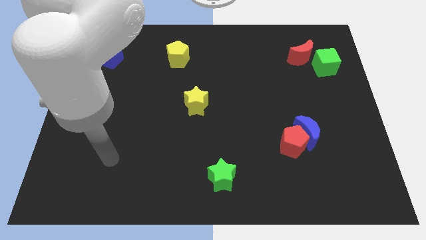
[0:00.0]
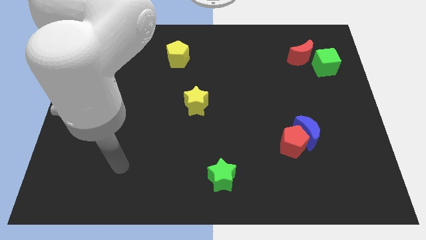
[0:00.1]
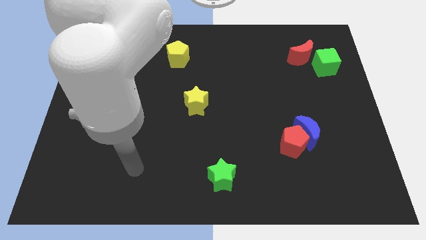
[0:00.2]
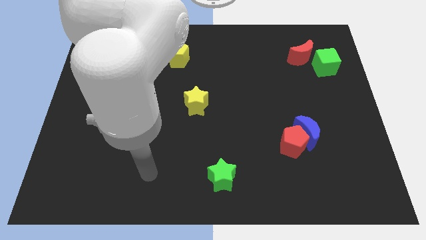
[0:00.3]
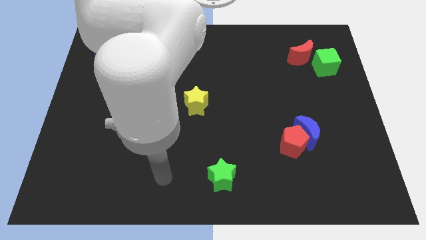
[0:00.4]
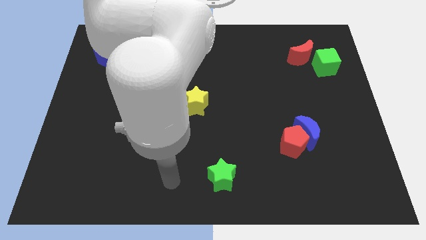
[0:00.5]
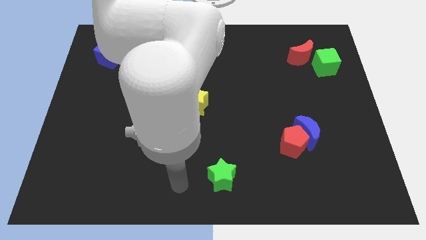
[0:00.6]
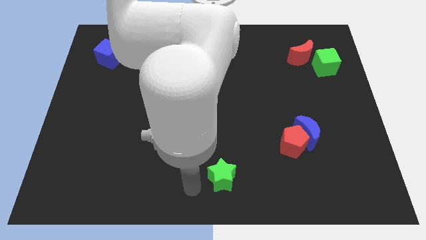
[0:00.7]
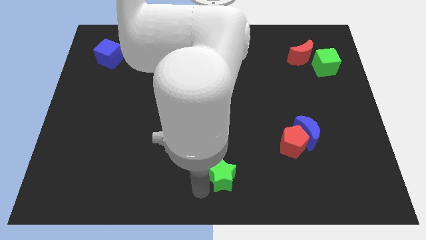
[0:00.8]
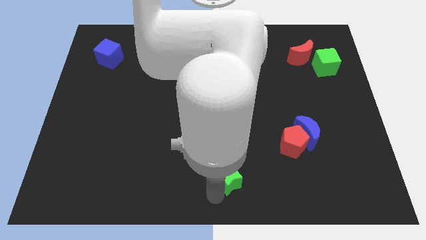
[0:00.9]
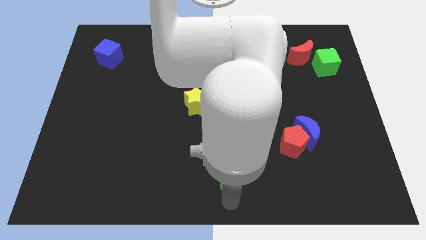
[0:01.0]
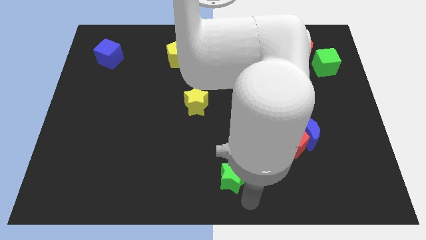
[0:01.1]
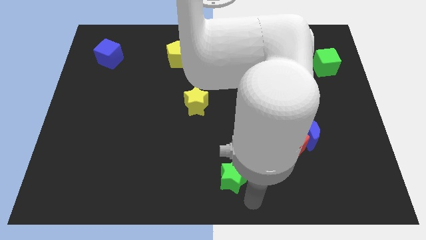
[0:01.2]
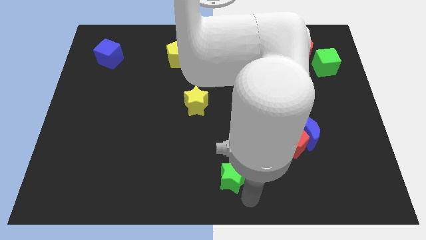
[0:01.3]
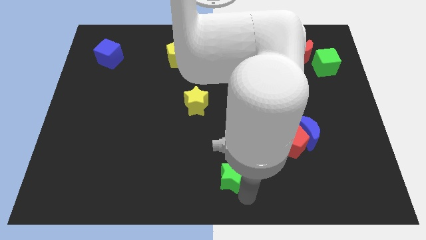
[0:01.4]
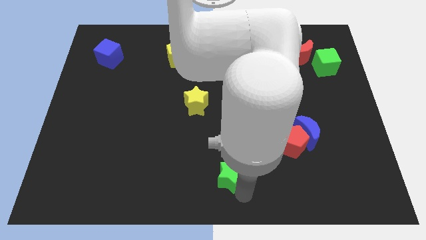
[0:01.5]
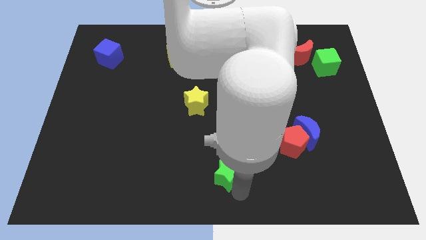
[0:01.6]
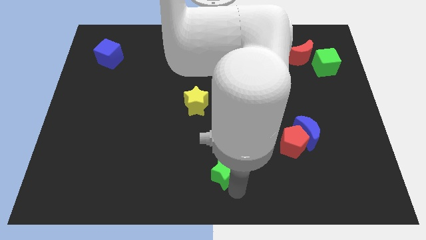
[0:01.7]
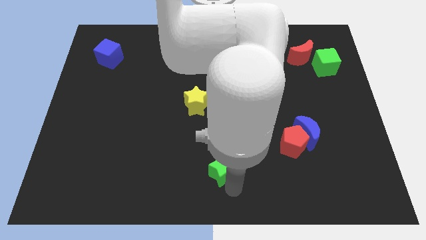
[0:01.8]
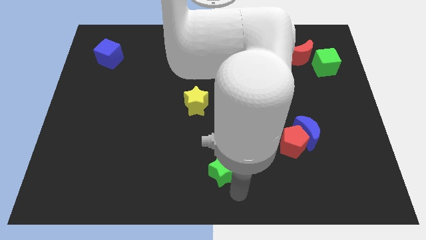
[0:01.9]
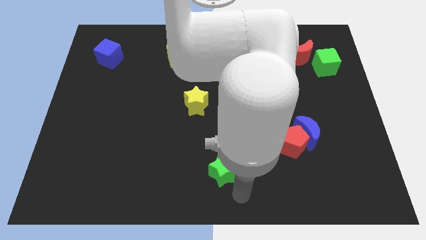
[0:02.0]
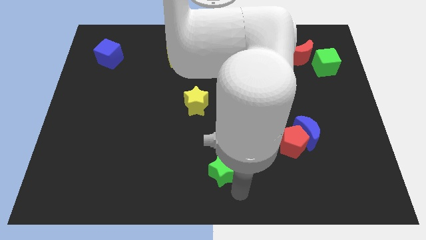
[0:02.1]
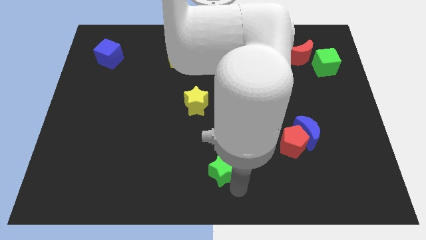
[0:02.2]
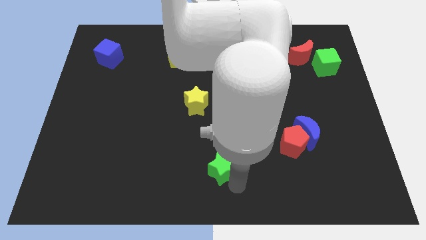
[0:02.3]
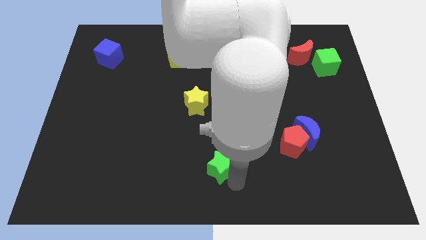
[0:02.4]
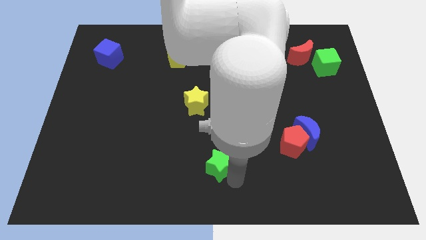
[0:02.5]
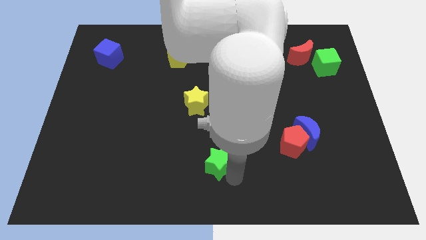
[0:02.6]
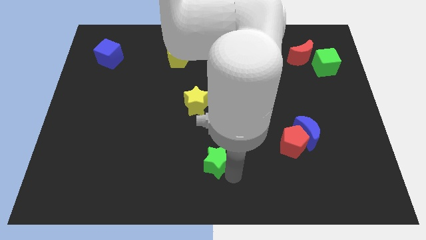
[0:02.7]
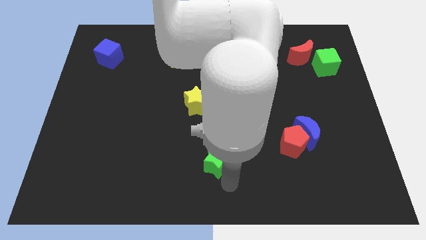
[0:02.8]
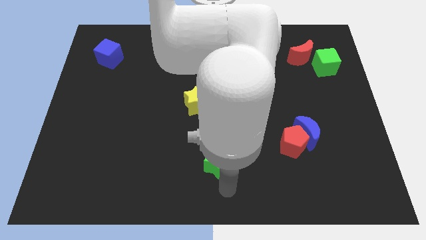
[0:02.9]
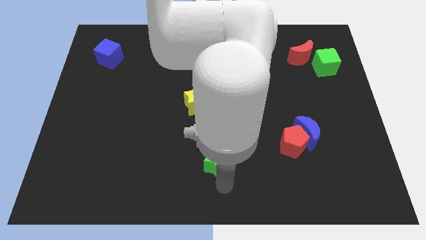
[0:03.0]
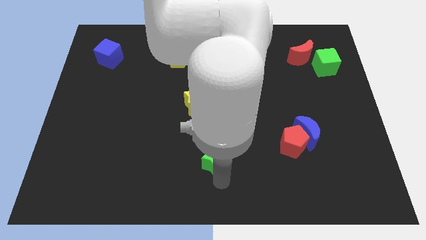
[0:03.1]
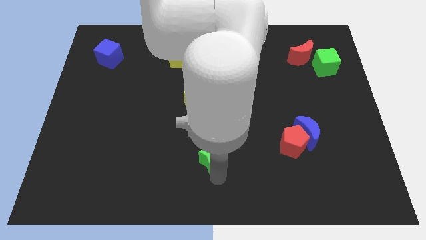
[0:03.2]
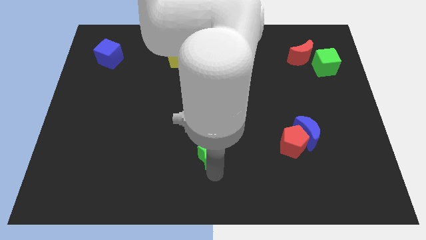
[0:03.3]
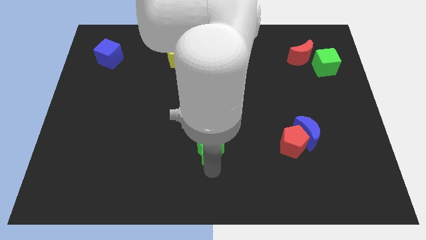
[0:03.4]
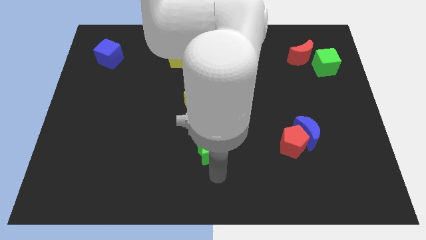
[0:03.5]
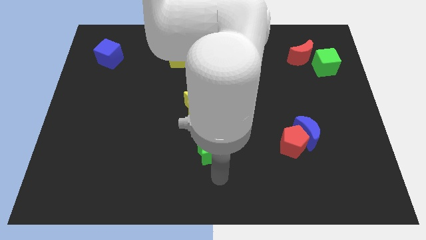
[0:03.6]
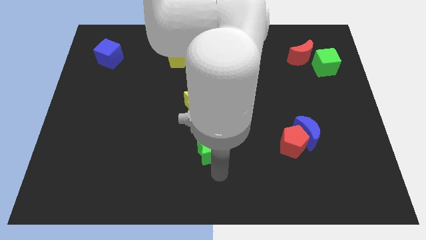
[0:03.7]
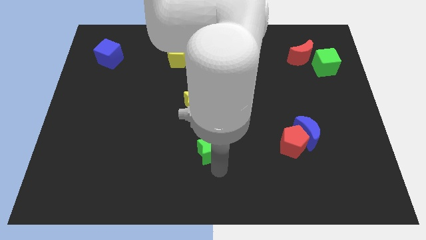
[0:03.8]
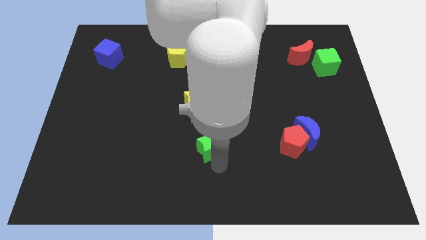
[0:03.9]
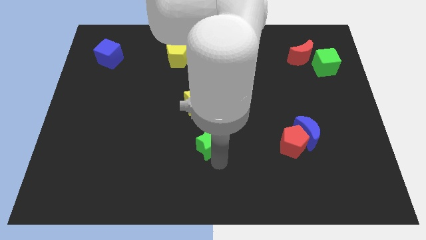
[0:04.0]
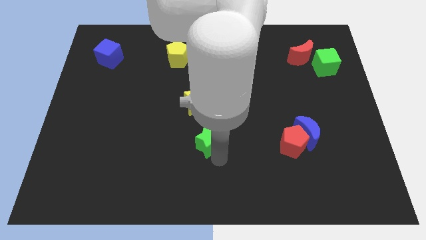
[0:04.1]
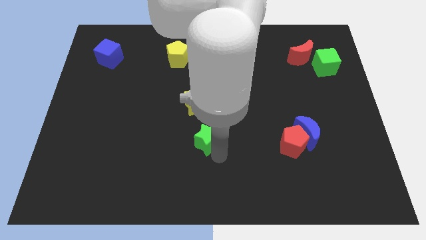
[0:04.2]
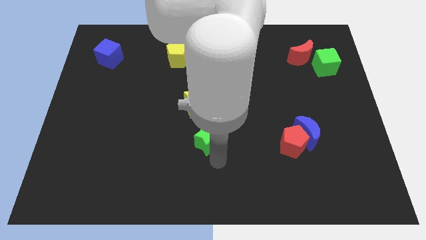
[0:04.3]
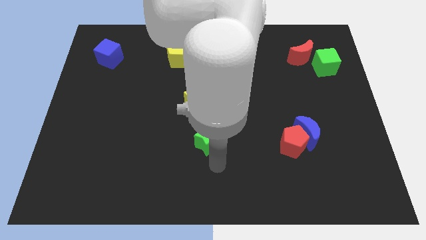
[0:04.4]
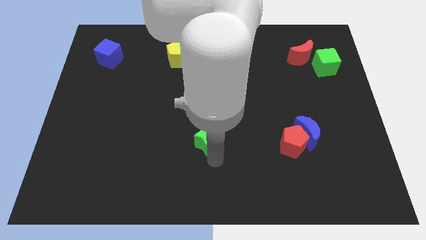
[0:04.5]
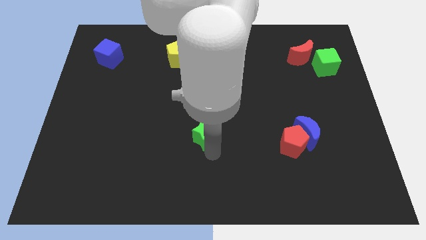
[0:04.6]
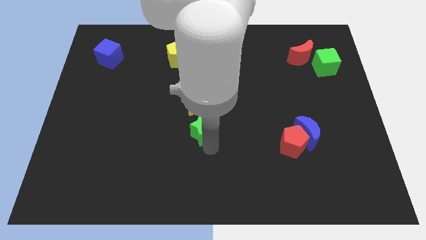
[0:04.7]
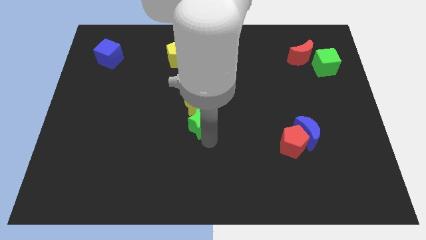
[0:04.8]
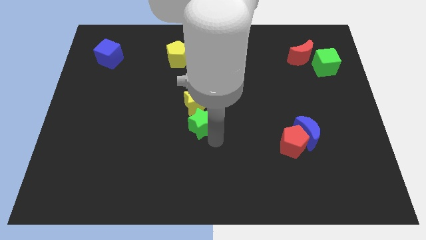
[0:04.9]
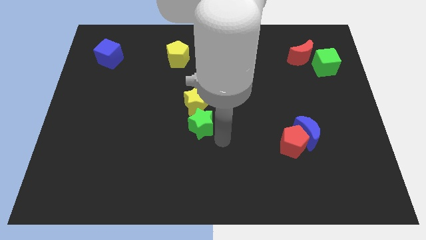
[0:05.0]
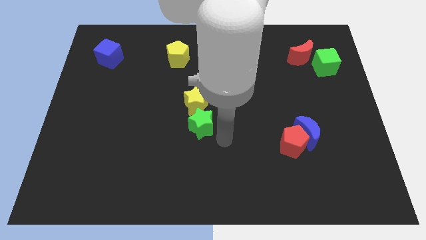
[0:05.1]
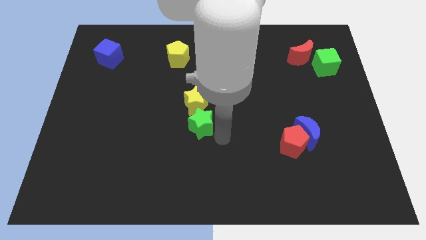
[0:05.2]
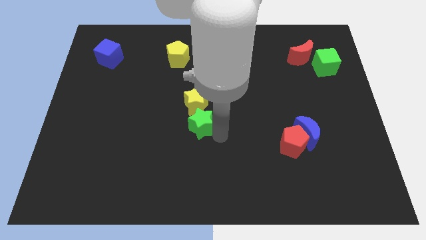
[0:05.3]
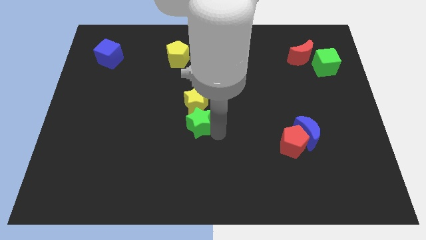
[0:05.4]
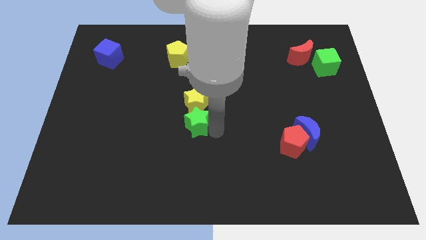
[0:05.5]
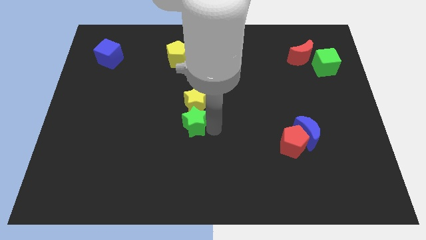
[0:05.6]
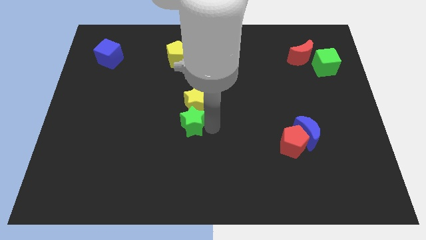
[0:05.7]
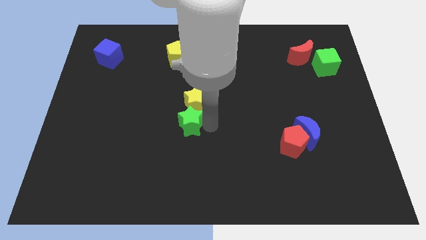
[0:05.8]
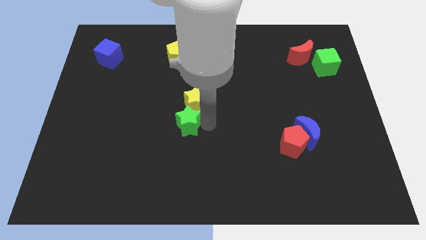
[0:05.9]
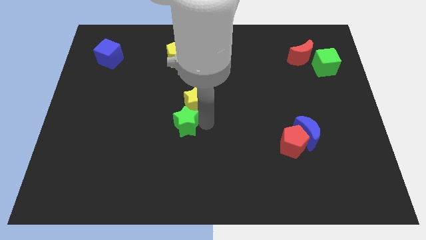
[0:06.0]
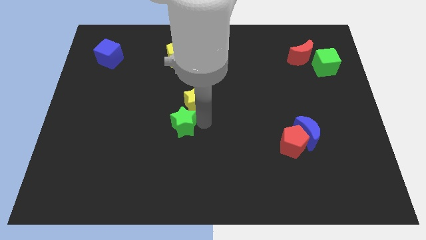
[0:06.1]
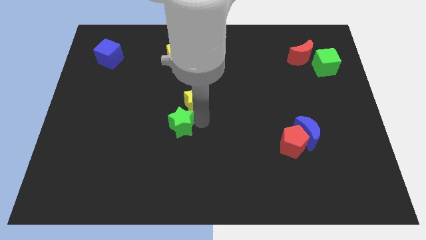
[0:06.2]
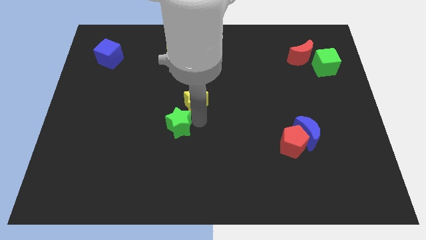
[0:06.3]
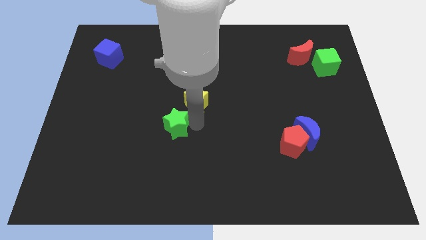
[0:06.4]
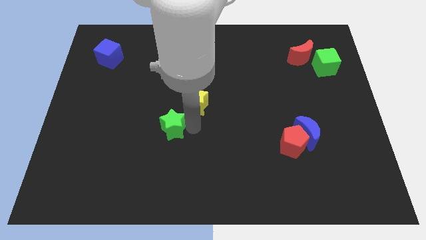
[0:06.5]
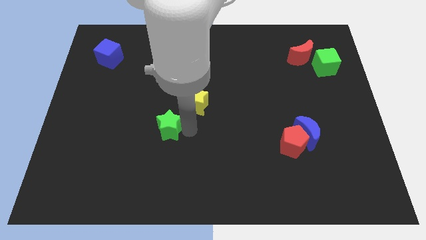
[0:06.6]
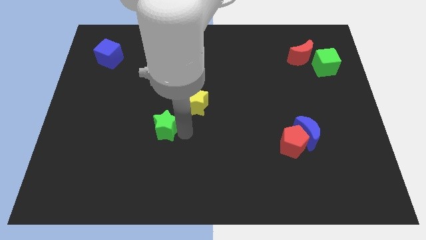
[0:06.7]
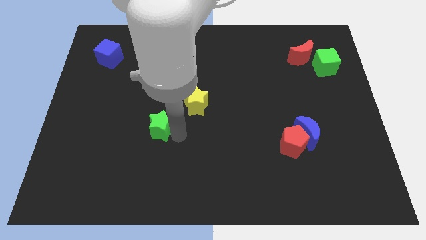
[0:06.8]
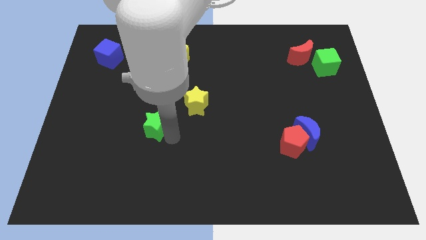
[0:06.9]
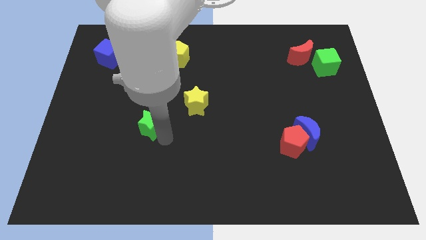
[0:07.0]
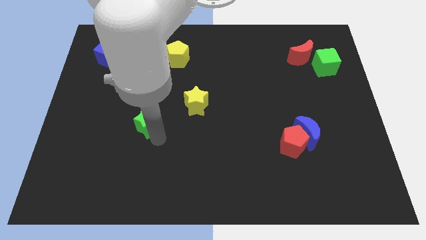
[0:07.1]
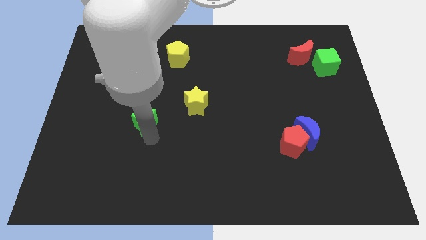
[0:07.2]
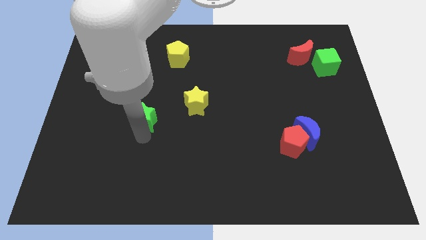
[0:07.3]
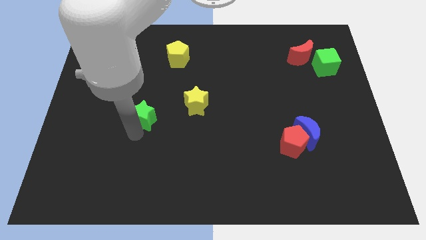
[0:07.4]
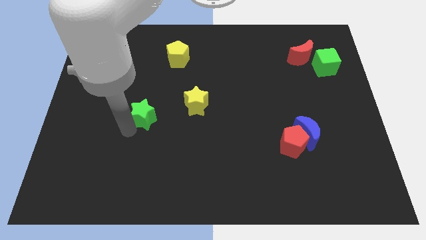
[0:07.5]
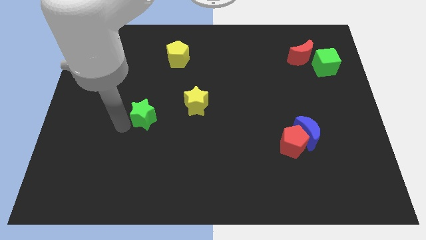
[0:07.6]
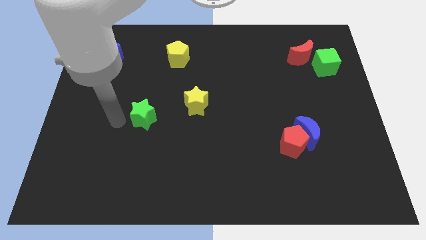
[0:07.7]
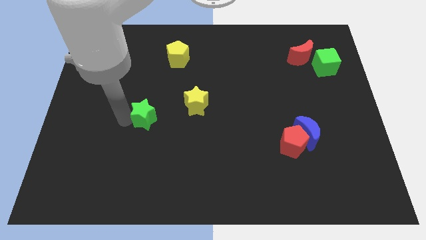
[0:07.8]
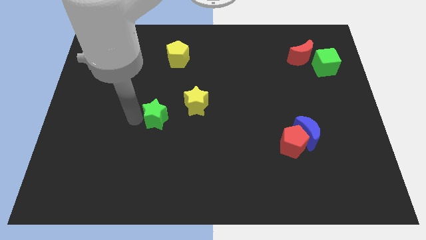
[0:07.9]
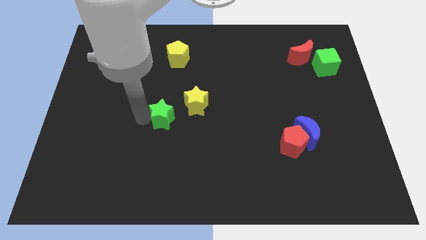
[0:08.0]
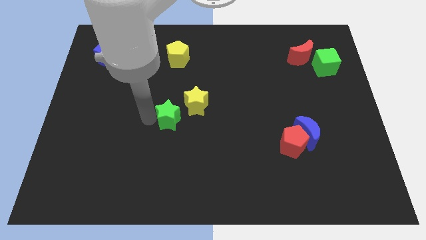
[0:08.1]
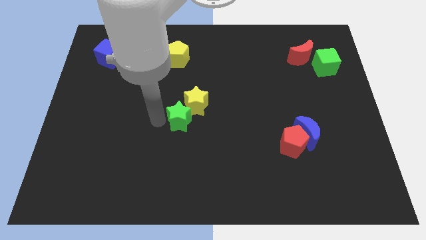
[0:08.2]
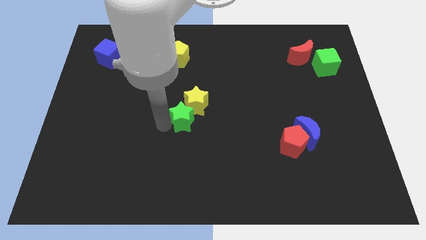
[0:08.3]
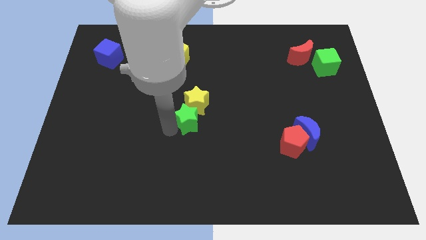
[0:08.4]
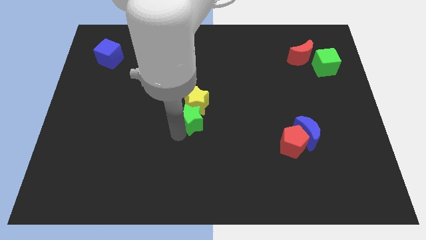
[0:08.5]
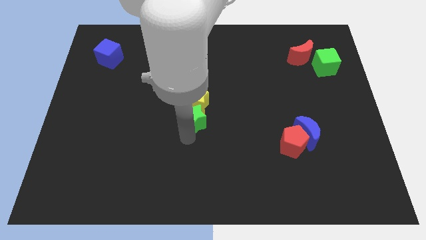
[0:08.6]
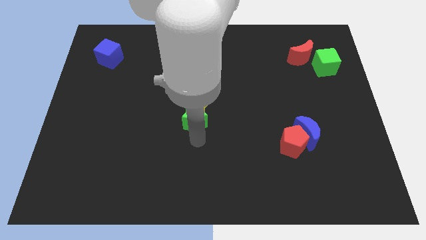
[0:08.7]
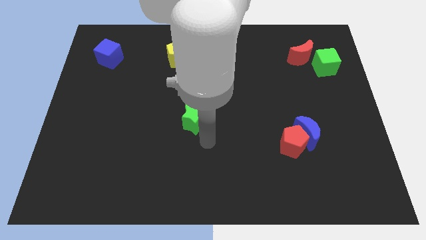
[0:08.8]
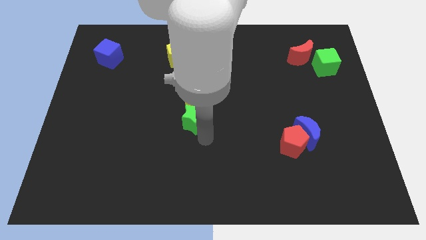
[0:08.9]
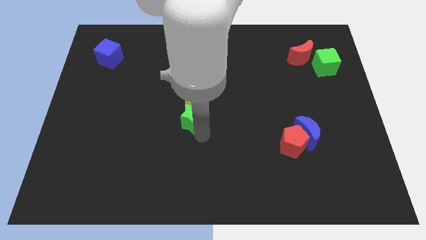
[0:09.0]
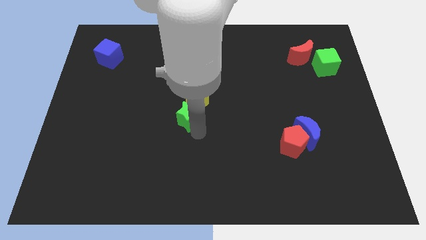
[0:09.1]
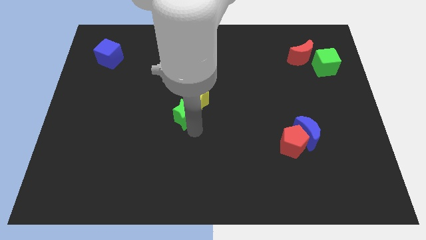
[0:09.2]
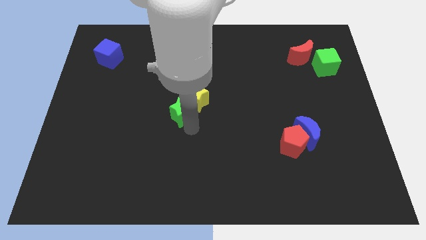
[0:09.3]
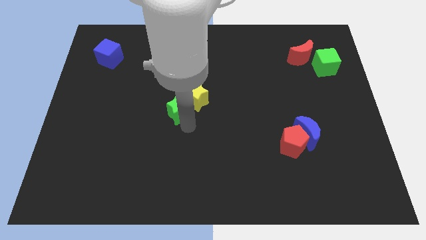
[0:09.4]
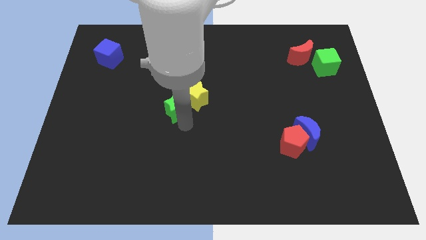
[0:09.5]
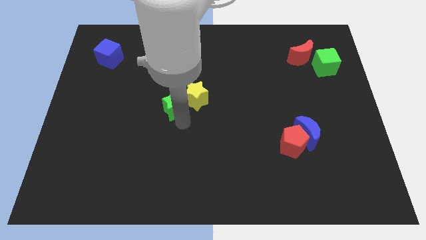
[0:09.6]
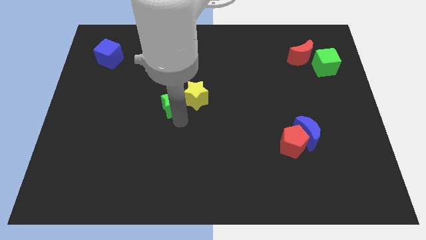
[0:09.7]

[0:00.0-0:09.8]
push the green star to the bottom of the yellow pentagon
